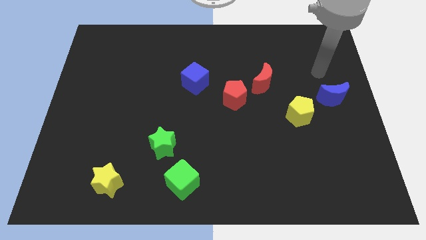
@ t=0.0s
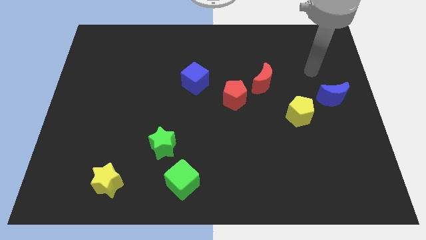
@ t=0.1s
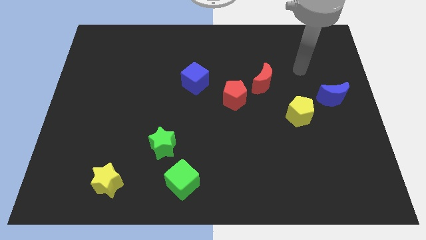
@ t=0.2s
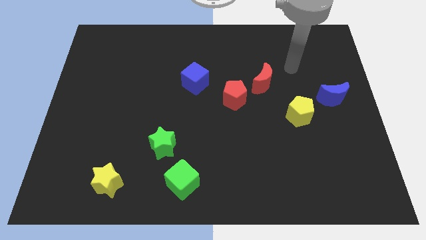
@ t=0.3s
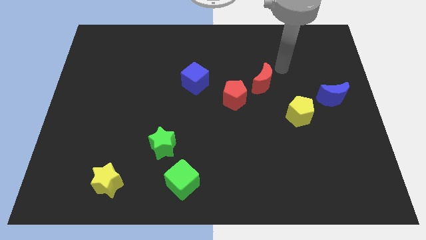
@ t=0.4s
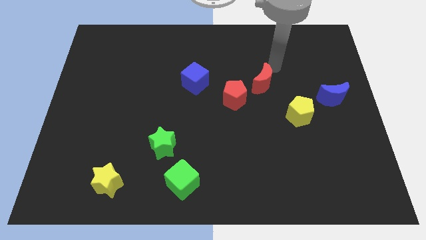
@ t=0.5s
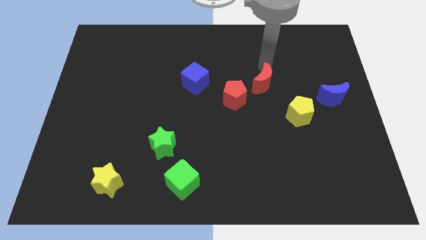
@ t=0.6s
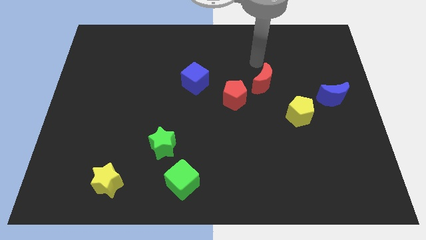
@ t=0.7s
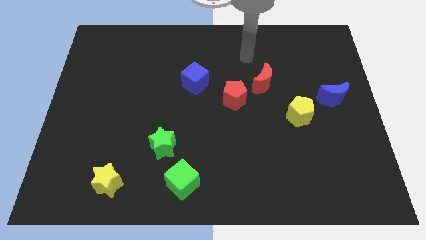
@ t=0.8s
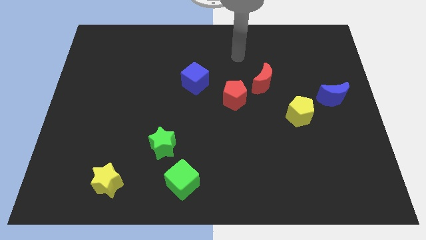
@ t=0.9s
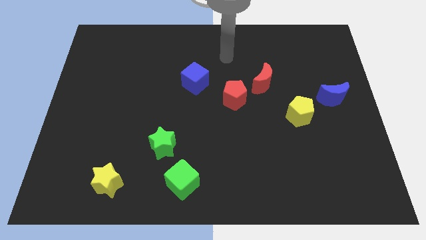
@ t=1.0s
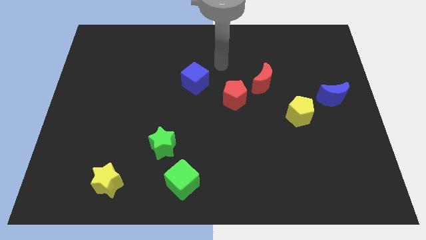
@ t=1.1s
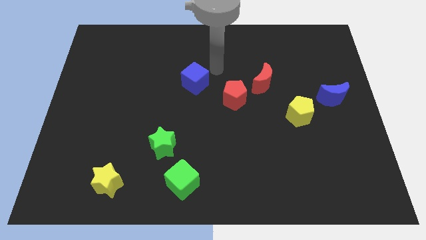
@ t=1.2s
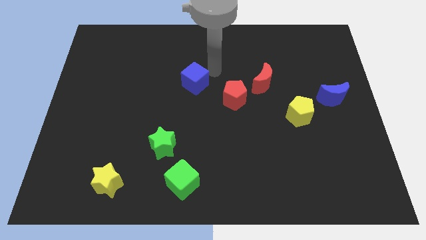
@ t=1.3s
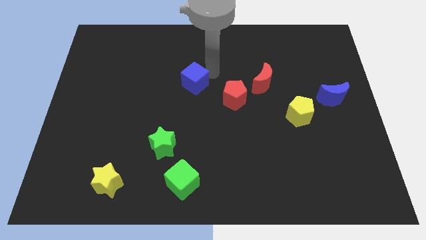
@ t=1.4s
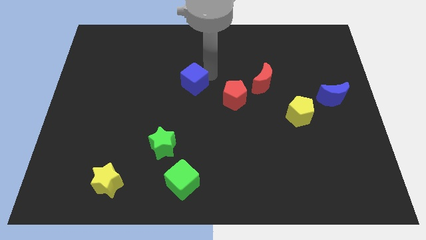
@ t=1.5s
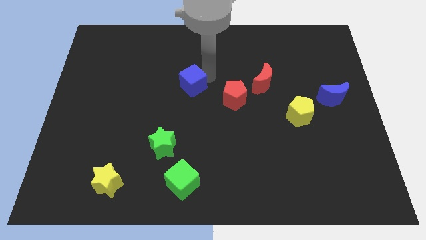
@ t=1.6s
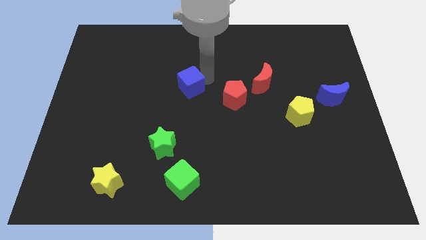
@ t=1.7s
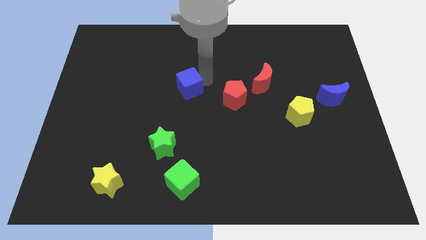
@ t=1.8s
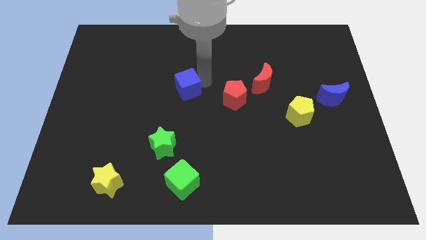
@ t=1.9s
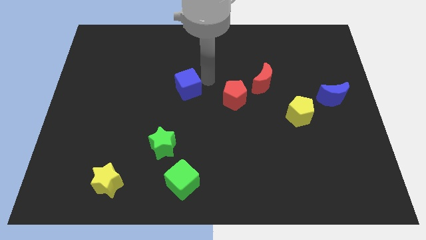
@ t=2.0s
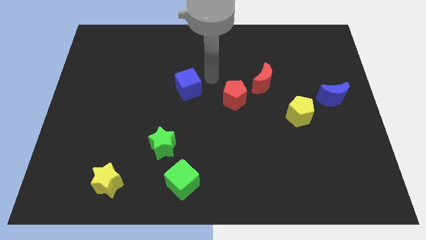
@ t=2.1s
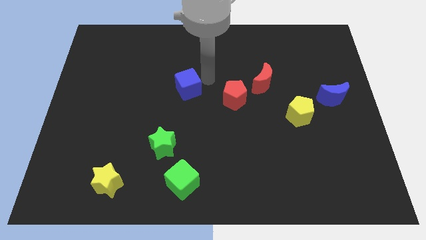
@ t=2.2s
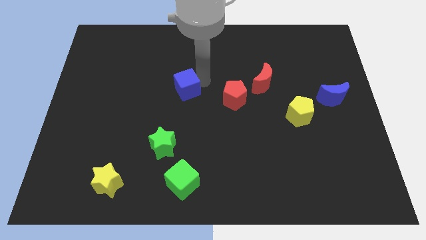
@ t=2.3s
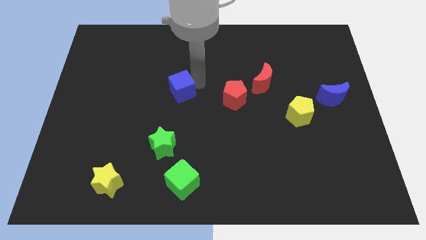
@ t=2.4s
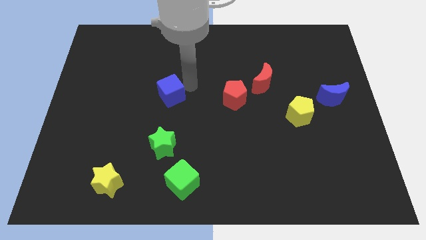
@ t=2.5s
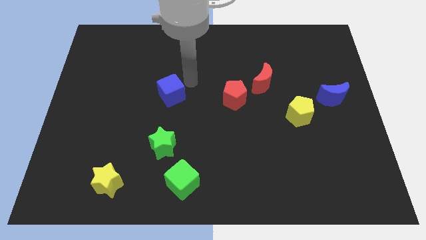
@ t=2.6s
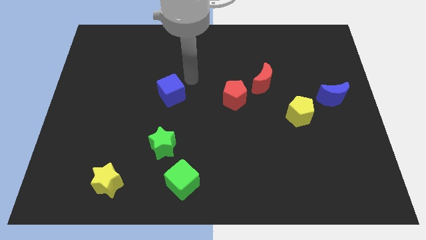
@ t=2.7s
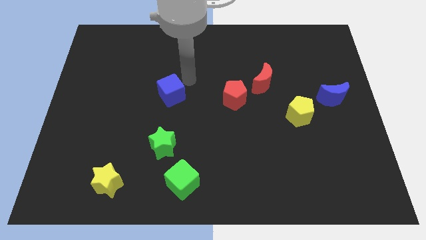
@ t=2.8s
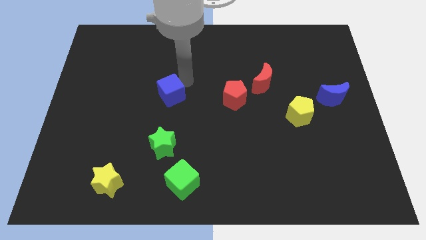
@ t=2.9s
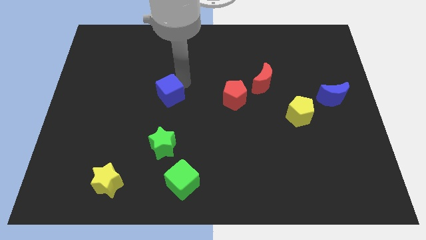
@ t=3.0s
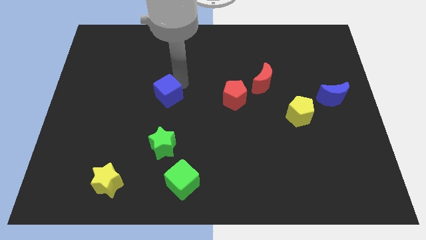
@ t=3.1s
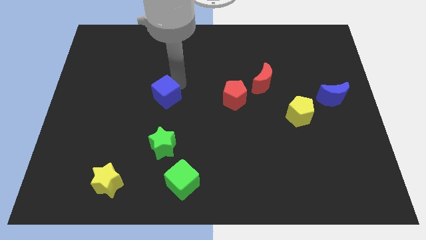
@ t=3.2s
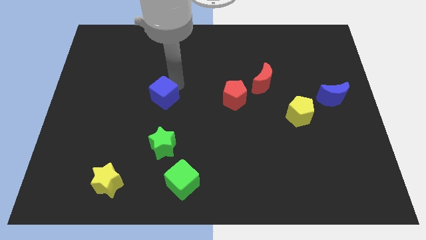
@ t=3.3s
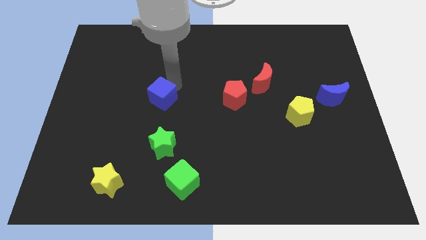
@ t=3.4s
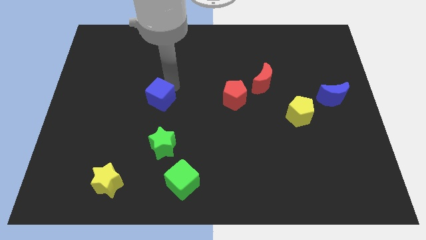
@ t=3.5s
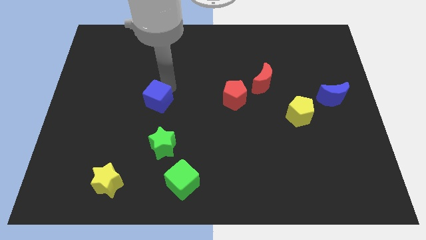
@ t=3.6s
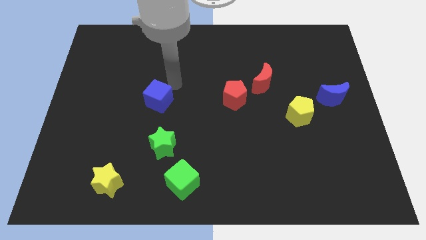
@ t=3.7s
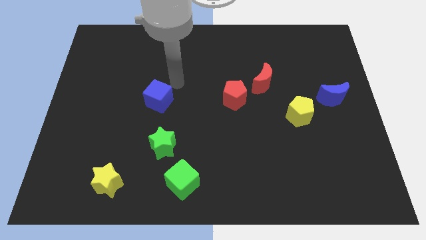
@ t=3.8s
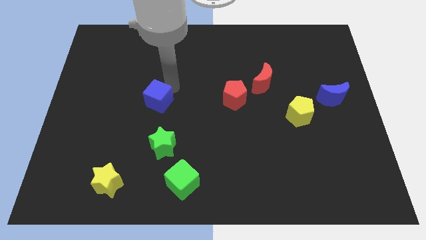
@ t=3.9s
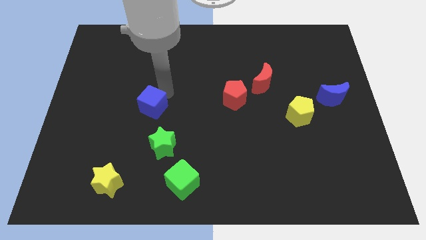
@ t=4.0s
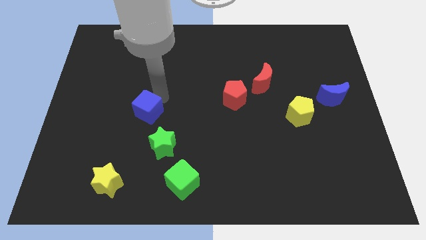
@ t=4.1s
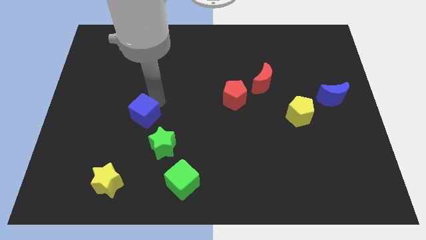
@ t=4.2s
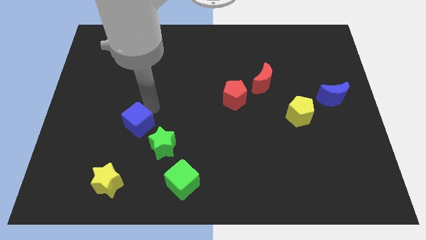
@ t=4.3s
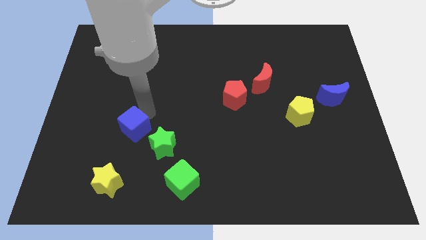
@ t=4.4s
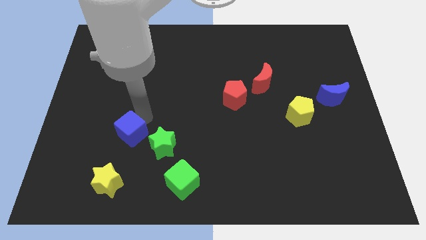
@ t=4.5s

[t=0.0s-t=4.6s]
slide the blue cube diagonally downwards and left

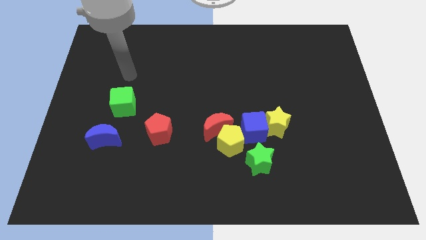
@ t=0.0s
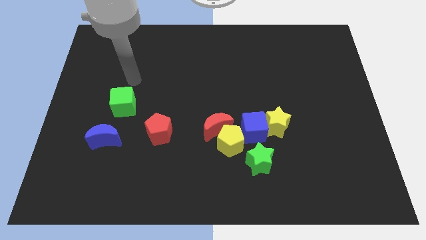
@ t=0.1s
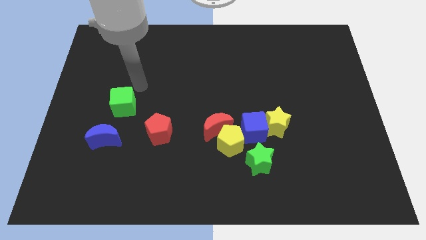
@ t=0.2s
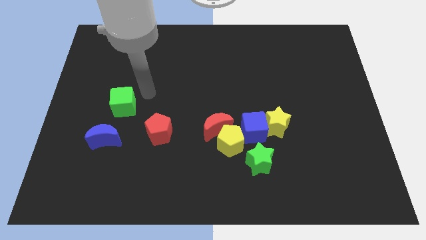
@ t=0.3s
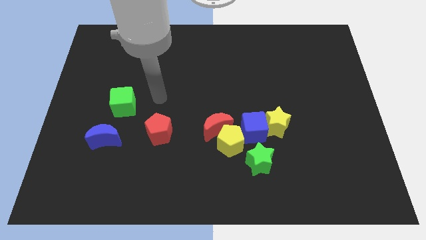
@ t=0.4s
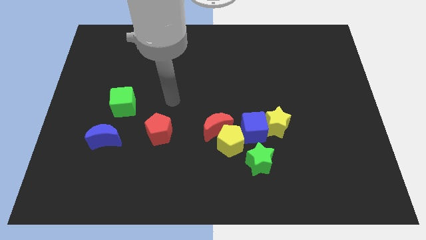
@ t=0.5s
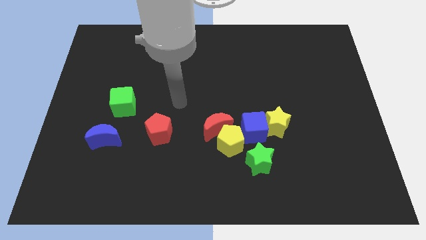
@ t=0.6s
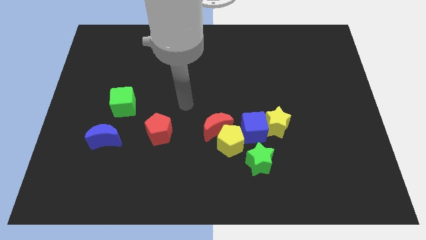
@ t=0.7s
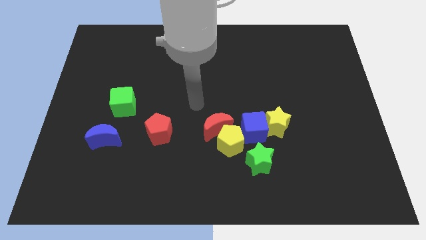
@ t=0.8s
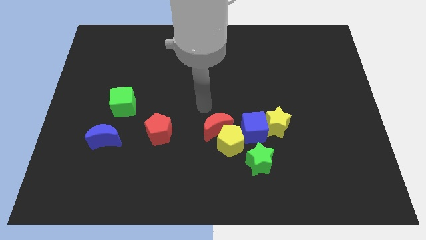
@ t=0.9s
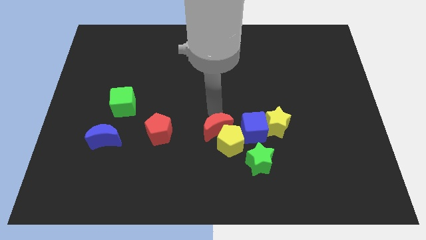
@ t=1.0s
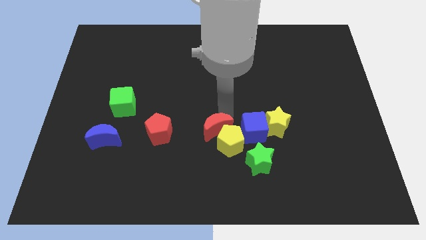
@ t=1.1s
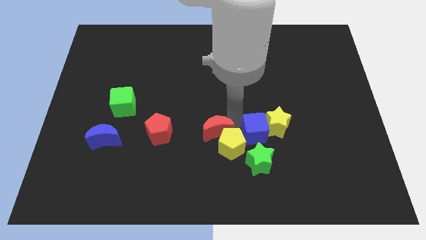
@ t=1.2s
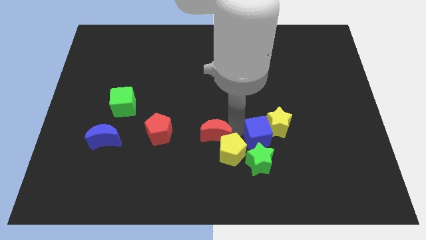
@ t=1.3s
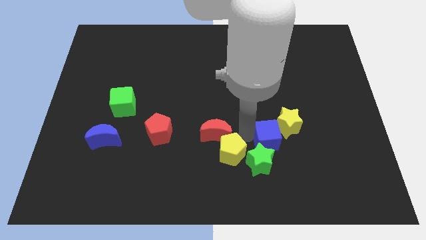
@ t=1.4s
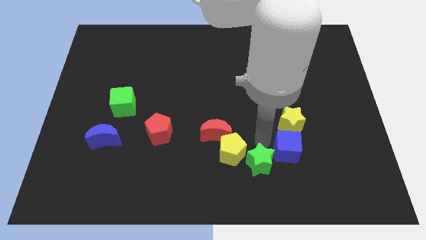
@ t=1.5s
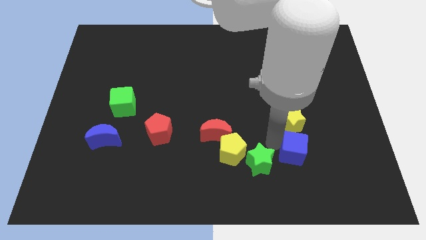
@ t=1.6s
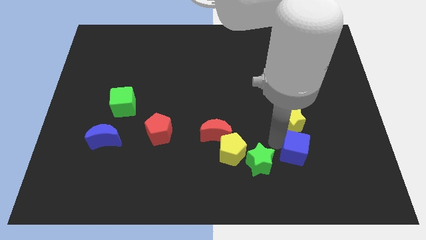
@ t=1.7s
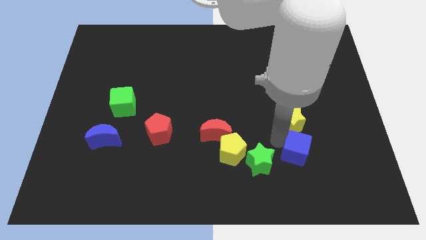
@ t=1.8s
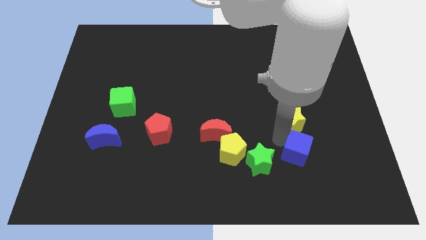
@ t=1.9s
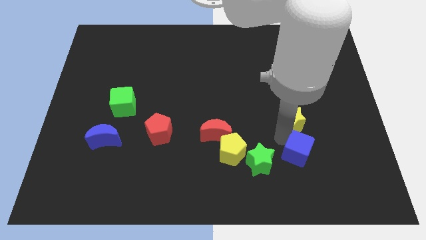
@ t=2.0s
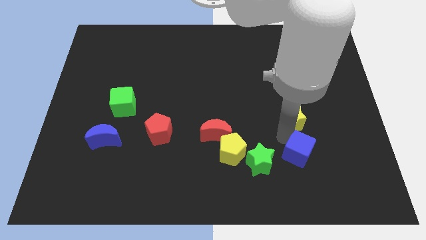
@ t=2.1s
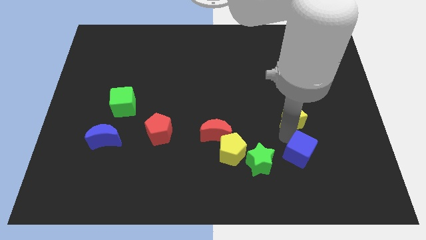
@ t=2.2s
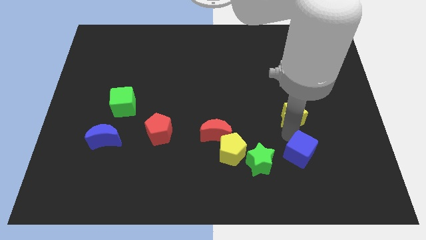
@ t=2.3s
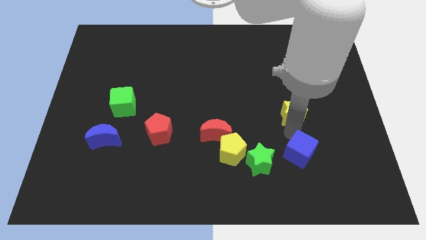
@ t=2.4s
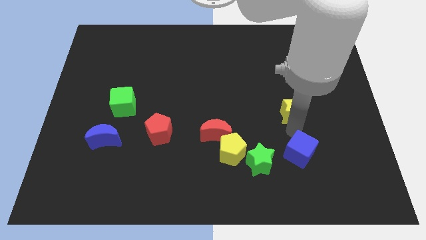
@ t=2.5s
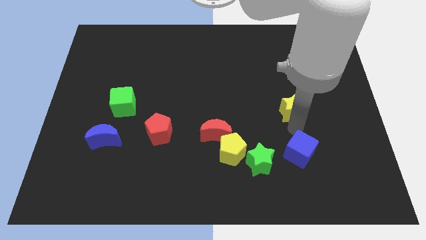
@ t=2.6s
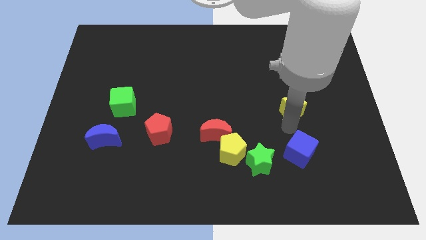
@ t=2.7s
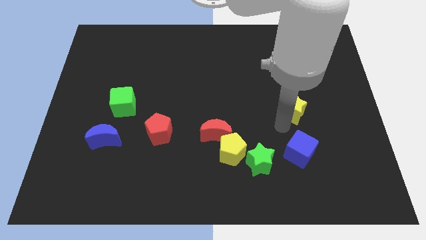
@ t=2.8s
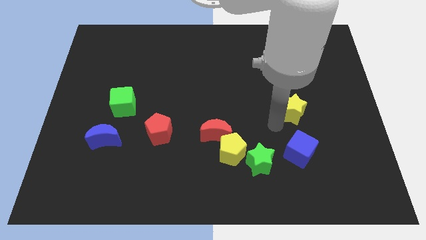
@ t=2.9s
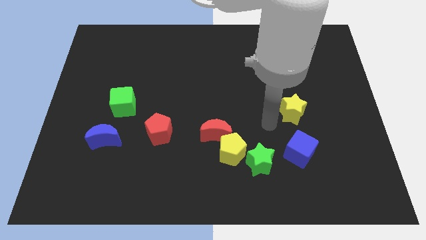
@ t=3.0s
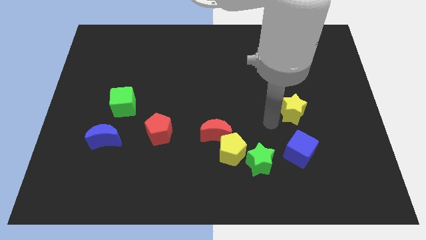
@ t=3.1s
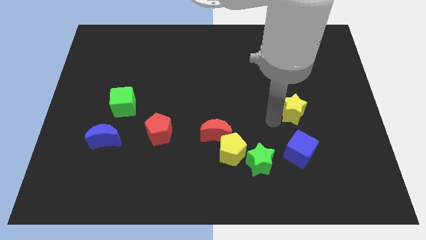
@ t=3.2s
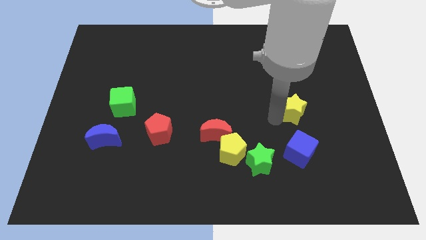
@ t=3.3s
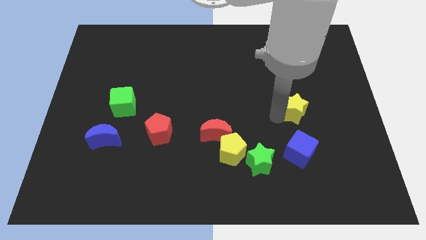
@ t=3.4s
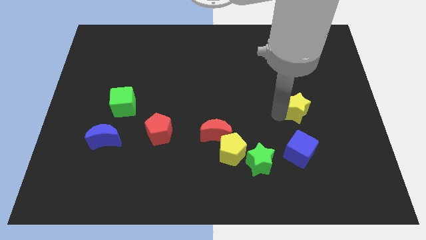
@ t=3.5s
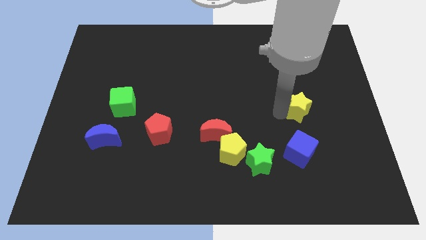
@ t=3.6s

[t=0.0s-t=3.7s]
move the yellow star somewhat up and then right

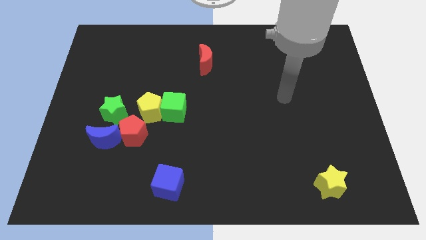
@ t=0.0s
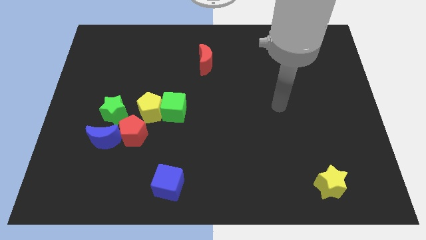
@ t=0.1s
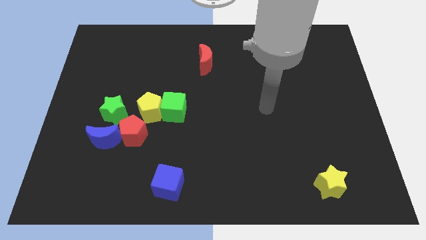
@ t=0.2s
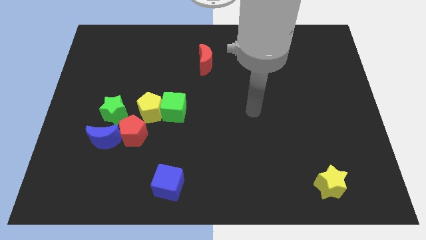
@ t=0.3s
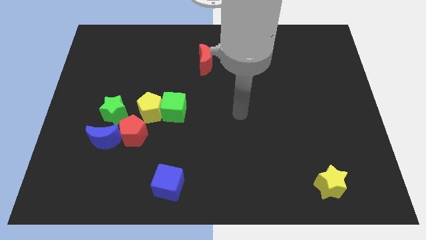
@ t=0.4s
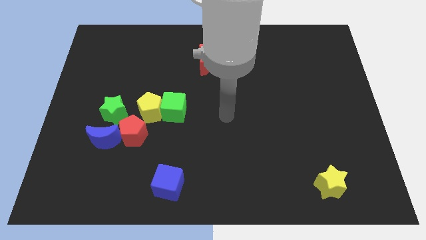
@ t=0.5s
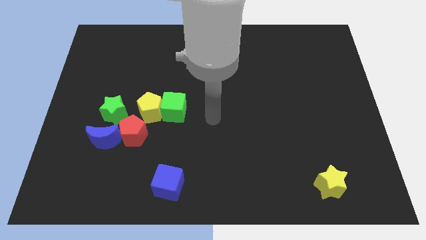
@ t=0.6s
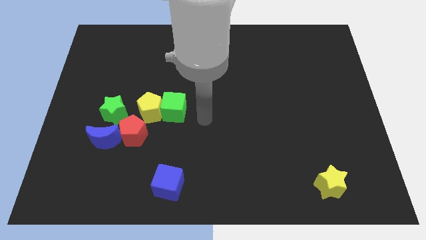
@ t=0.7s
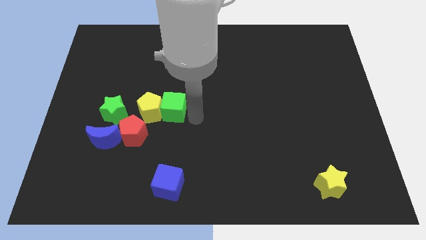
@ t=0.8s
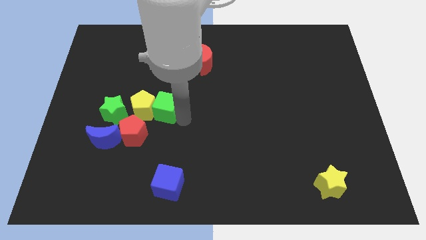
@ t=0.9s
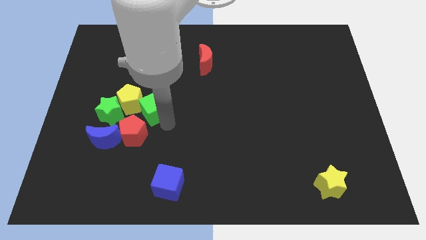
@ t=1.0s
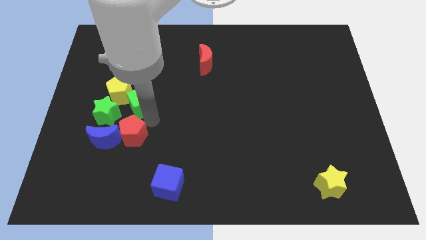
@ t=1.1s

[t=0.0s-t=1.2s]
slide the yellow pentagon a little bit up and then left
